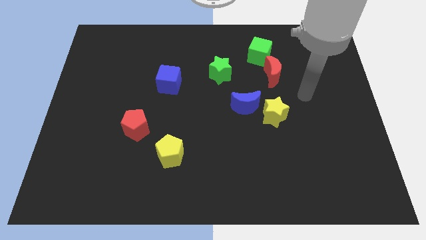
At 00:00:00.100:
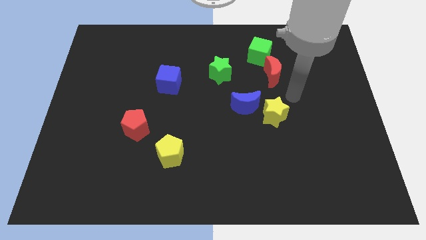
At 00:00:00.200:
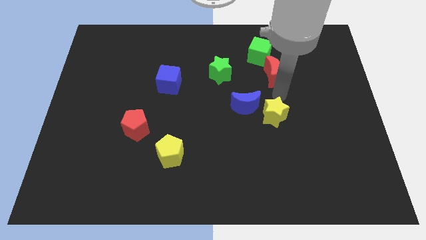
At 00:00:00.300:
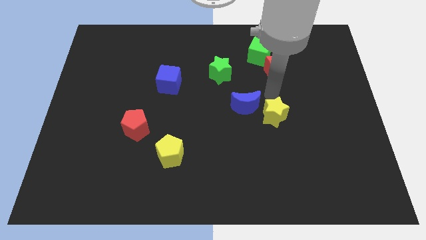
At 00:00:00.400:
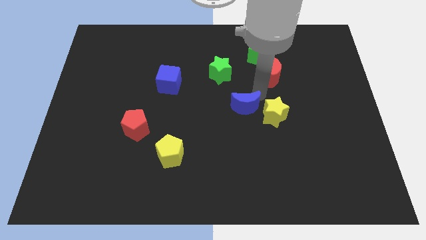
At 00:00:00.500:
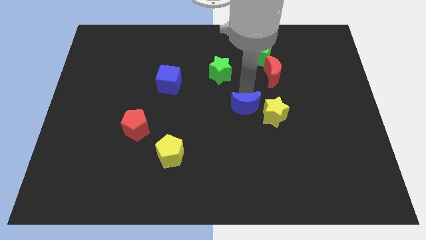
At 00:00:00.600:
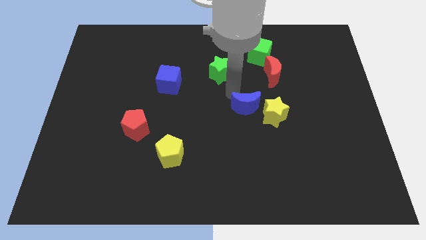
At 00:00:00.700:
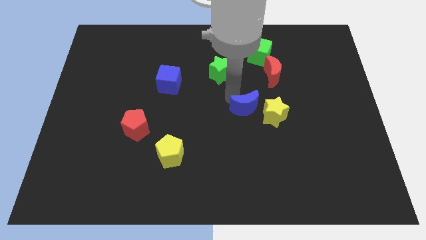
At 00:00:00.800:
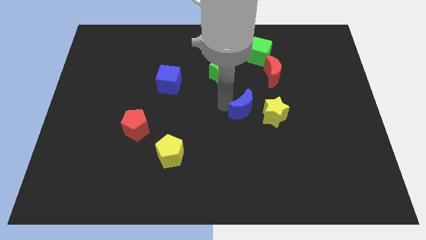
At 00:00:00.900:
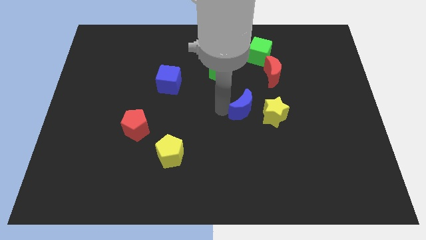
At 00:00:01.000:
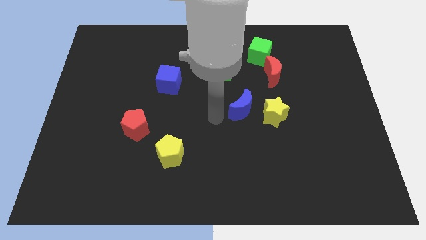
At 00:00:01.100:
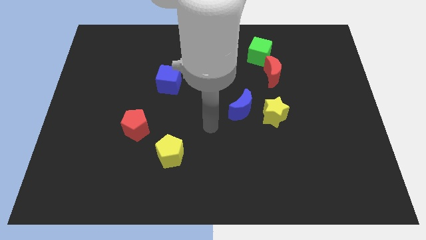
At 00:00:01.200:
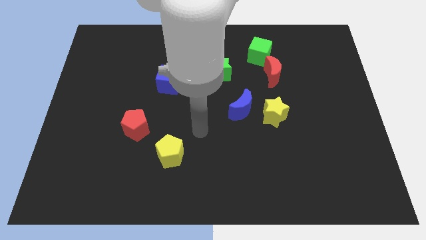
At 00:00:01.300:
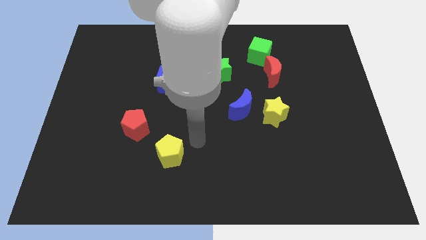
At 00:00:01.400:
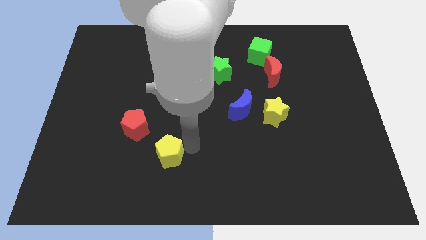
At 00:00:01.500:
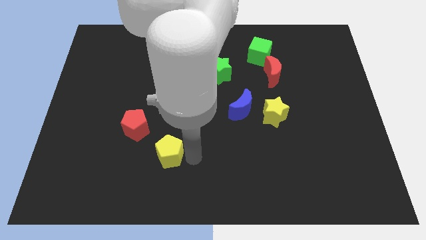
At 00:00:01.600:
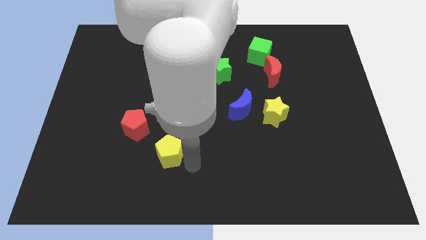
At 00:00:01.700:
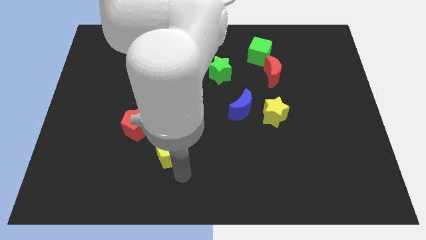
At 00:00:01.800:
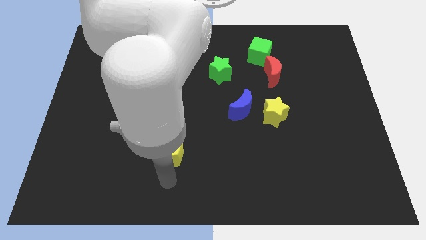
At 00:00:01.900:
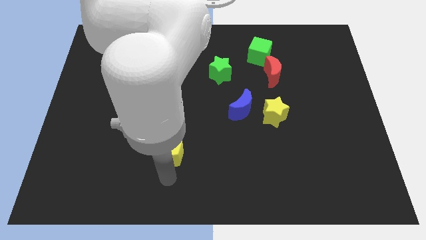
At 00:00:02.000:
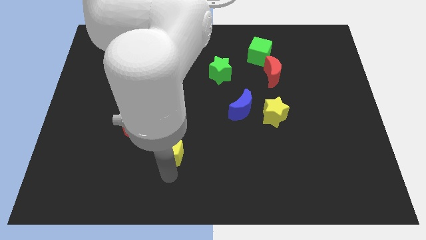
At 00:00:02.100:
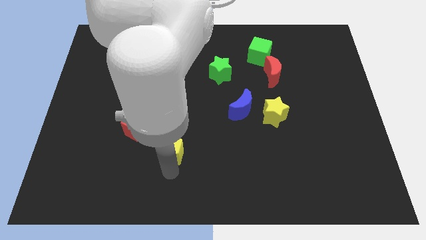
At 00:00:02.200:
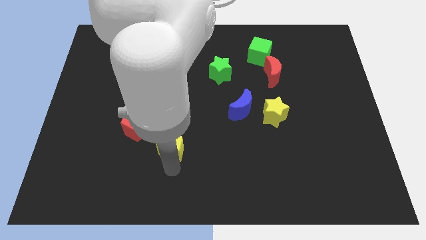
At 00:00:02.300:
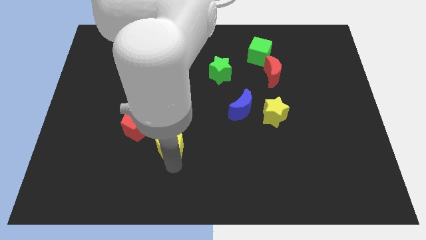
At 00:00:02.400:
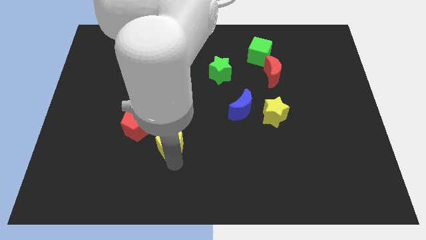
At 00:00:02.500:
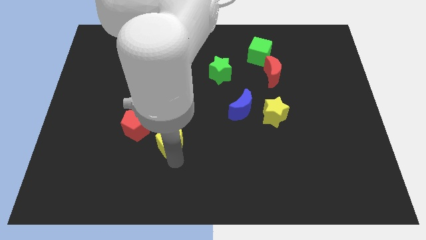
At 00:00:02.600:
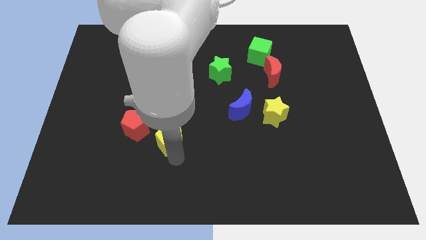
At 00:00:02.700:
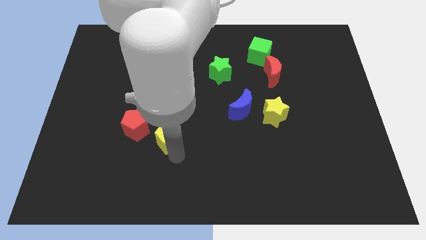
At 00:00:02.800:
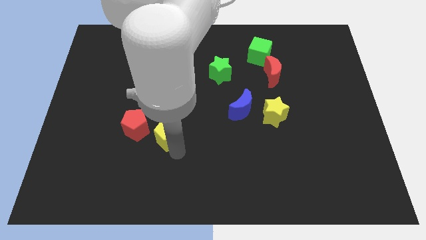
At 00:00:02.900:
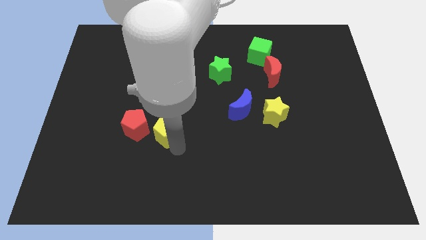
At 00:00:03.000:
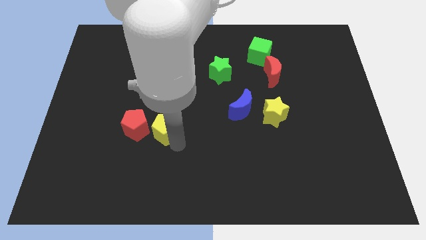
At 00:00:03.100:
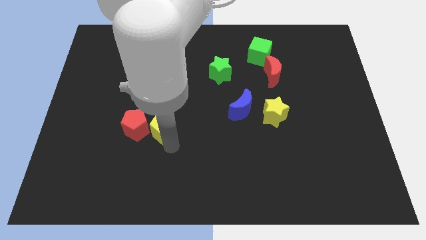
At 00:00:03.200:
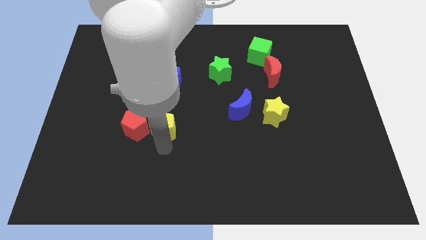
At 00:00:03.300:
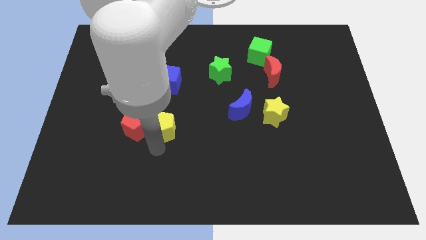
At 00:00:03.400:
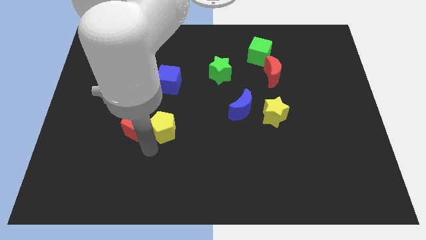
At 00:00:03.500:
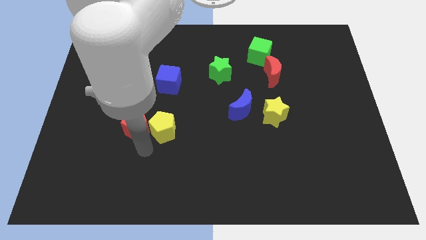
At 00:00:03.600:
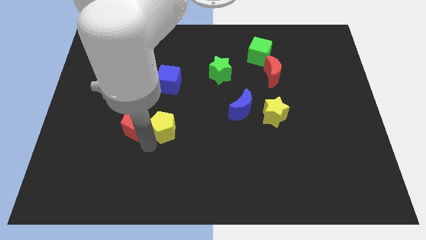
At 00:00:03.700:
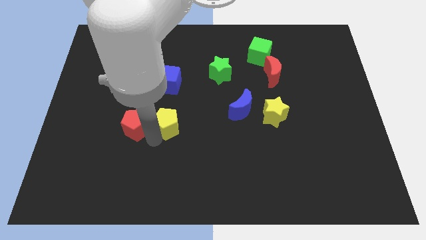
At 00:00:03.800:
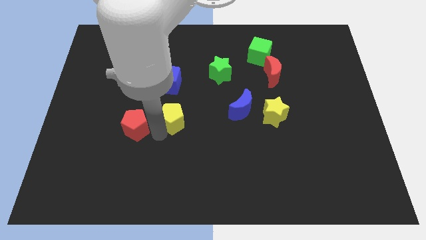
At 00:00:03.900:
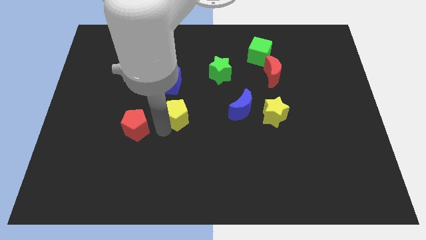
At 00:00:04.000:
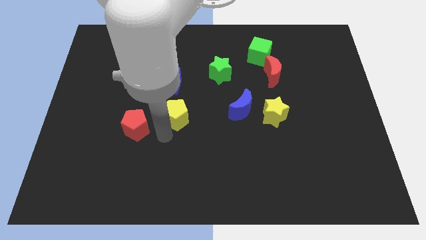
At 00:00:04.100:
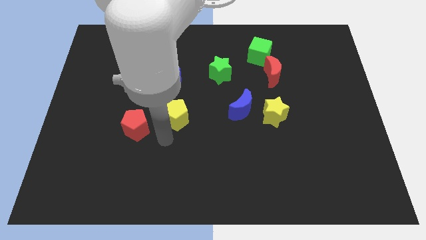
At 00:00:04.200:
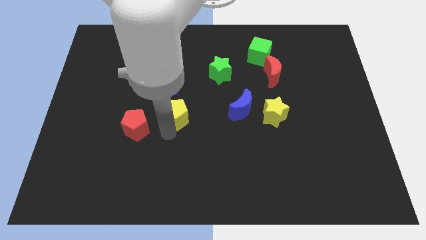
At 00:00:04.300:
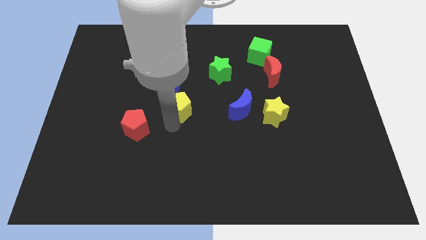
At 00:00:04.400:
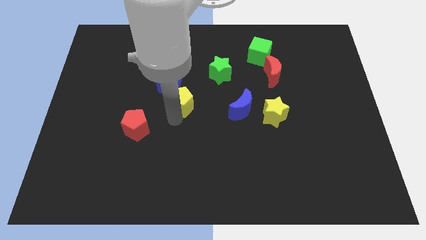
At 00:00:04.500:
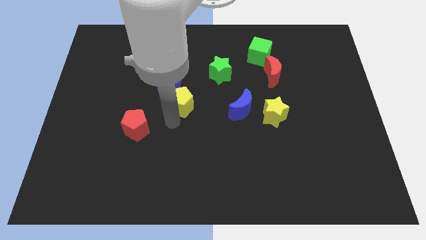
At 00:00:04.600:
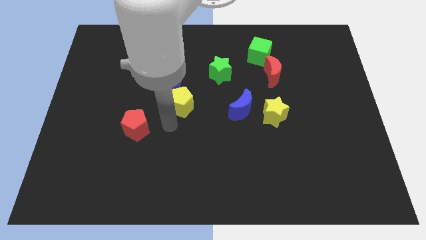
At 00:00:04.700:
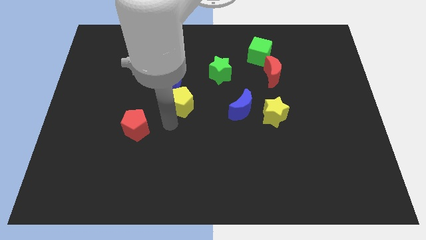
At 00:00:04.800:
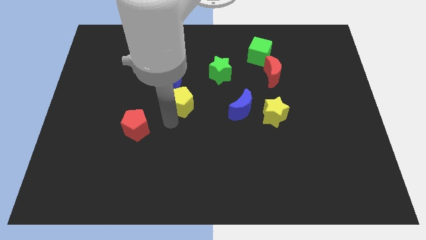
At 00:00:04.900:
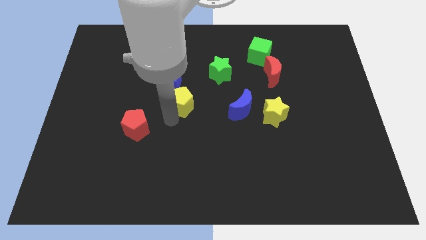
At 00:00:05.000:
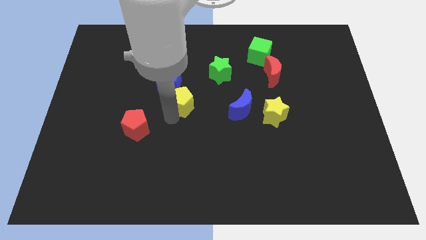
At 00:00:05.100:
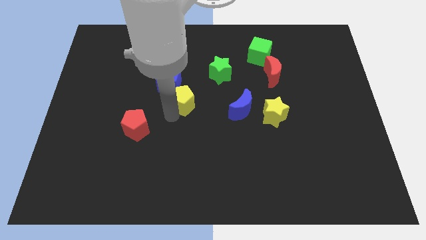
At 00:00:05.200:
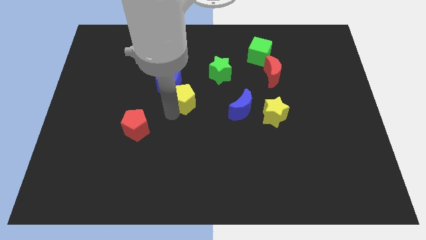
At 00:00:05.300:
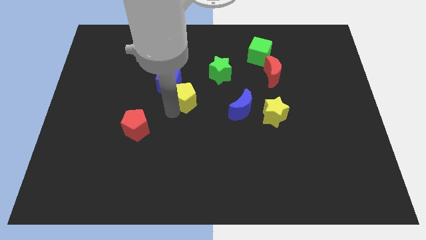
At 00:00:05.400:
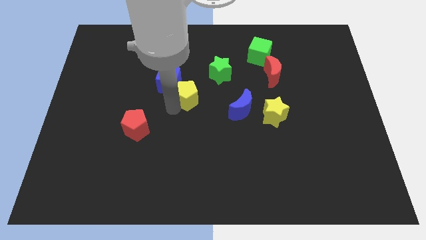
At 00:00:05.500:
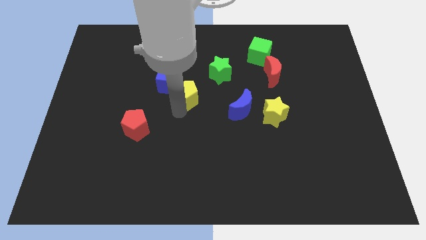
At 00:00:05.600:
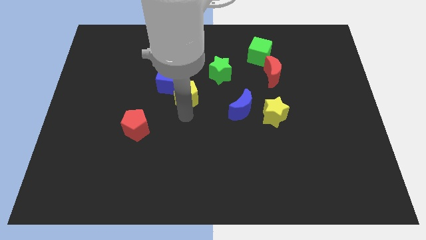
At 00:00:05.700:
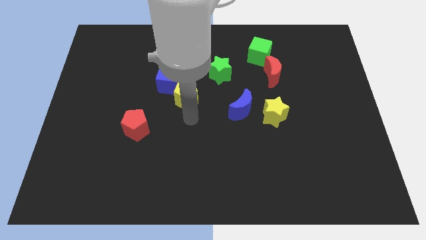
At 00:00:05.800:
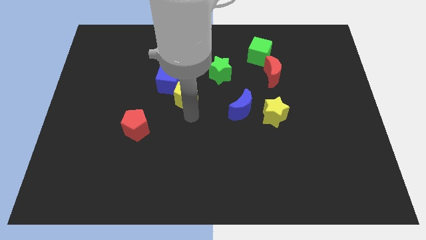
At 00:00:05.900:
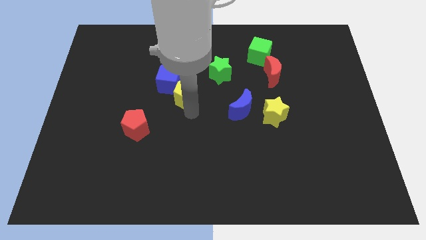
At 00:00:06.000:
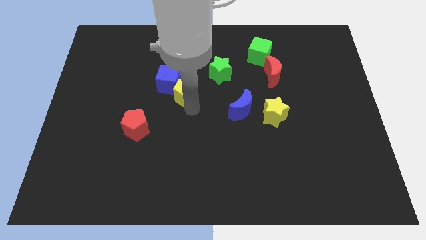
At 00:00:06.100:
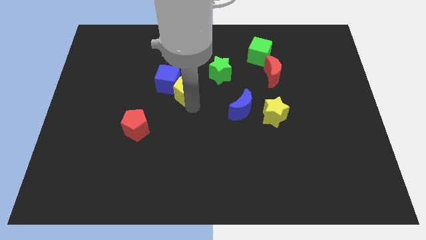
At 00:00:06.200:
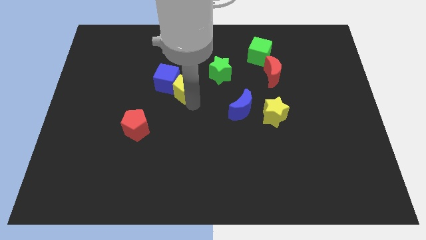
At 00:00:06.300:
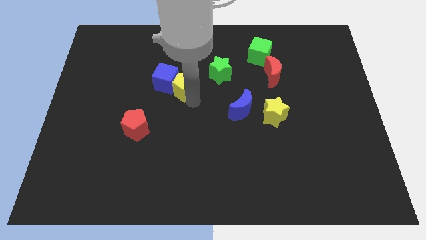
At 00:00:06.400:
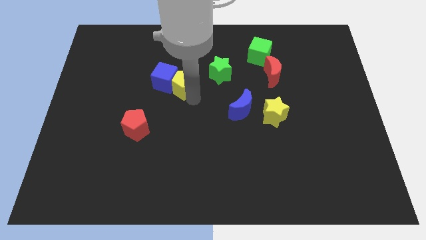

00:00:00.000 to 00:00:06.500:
slide the yellow pentagon to the left side of the green star

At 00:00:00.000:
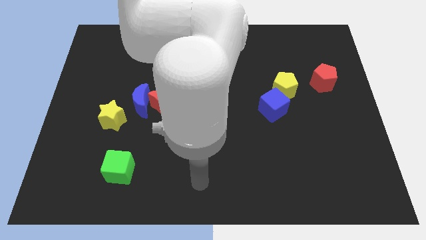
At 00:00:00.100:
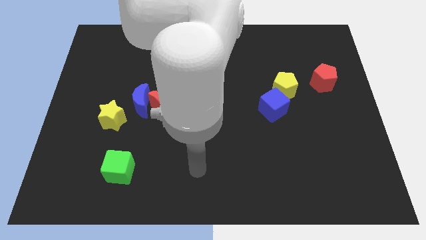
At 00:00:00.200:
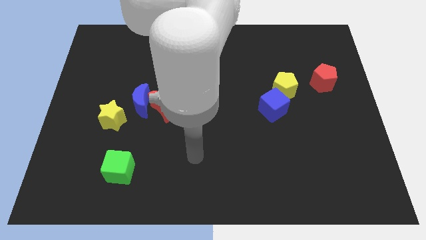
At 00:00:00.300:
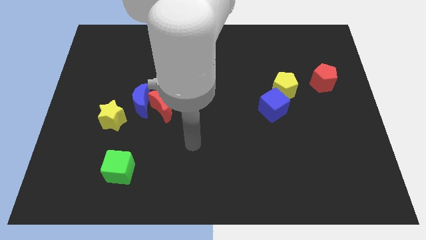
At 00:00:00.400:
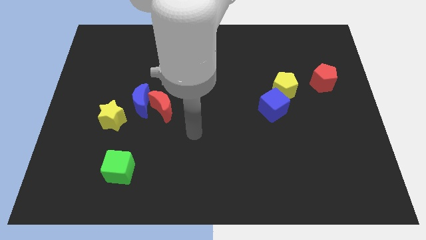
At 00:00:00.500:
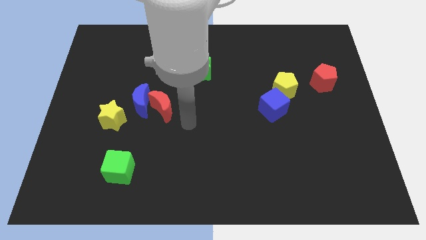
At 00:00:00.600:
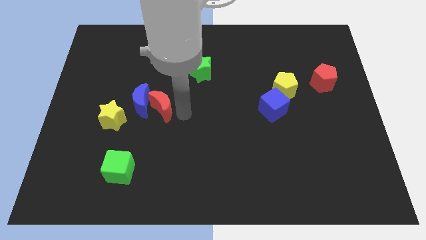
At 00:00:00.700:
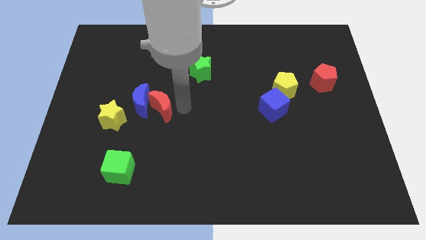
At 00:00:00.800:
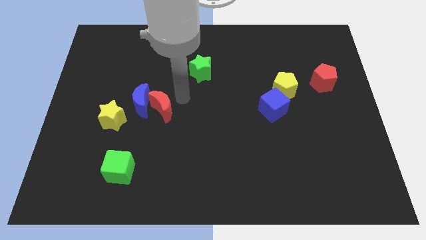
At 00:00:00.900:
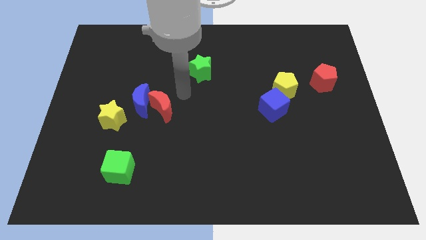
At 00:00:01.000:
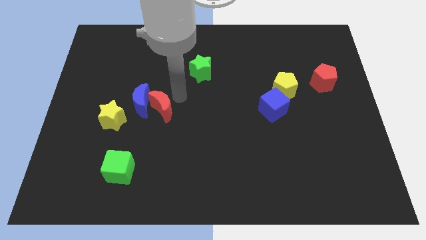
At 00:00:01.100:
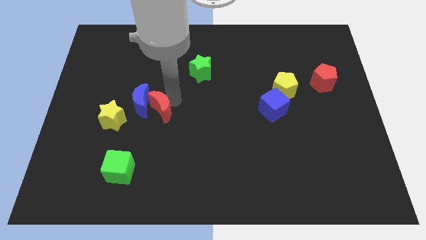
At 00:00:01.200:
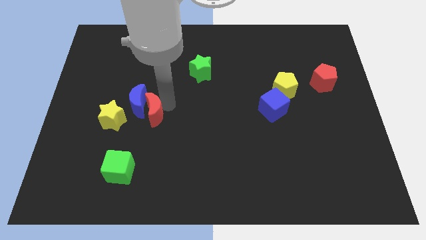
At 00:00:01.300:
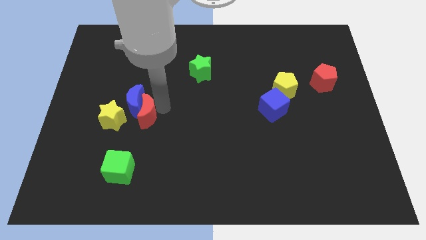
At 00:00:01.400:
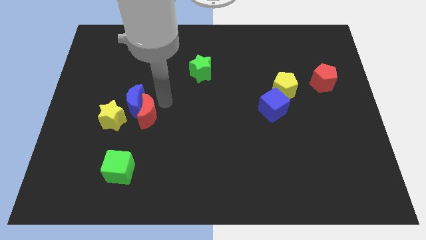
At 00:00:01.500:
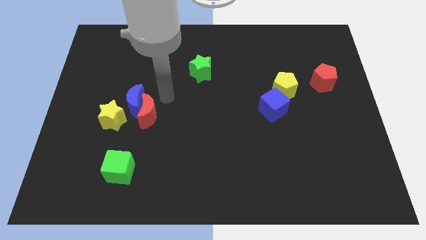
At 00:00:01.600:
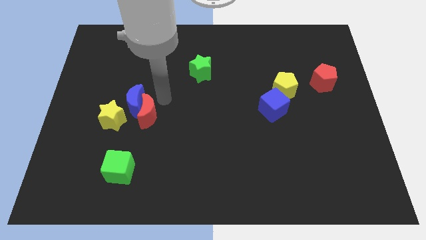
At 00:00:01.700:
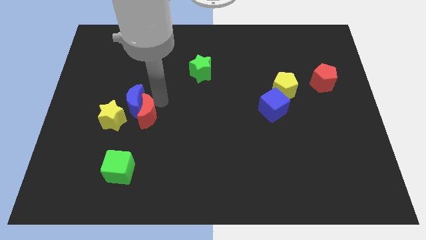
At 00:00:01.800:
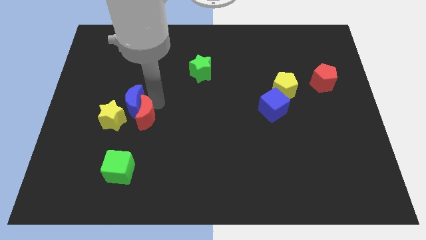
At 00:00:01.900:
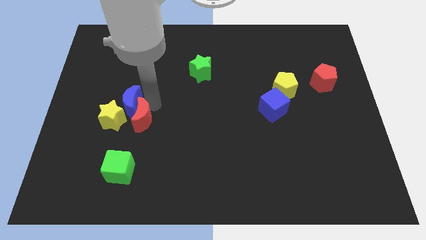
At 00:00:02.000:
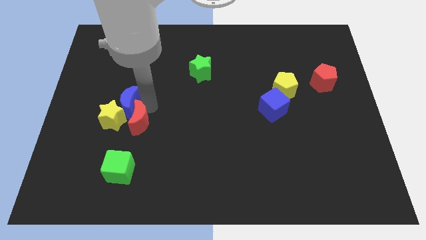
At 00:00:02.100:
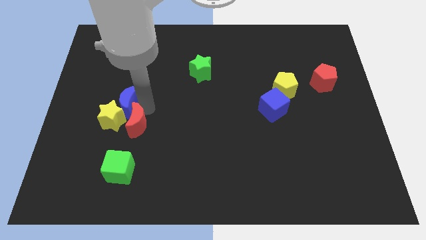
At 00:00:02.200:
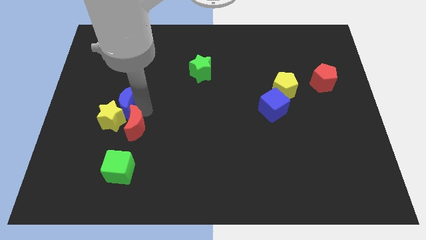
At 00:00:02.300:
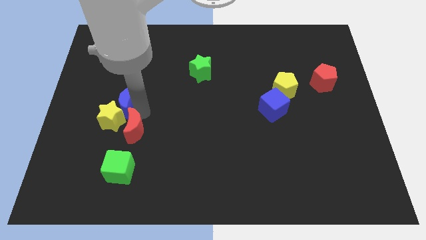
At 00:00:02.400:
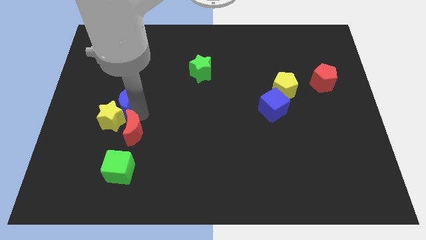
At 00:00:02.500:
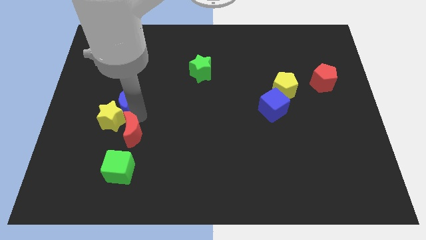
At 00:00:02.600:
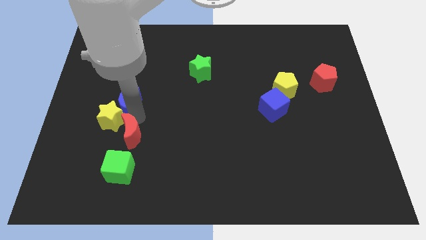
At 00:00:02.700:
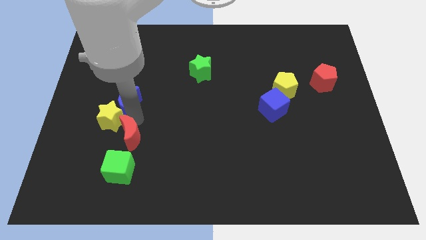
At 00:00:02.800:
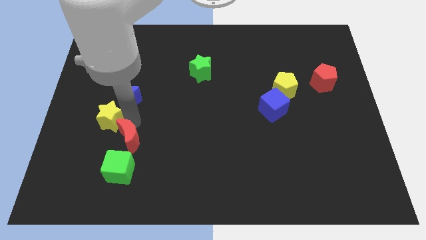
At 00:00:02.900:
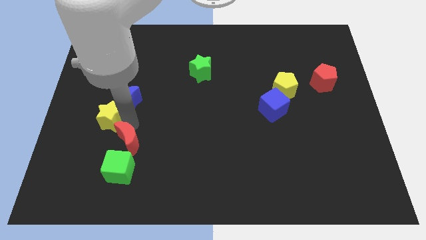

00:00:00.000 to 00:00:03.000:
slide the red moon to the bottom side of the yellow star
